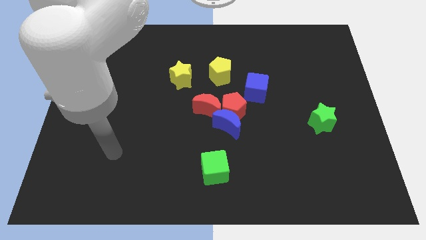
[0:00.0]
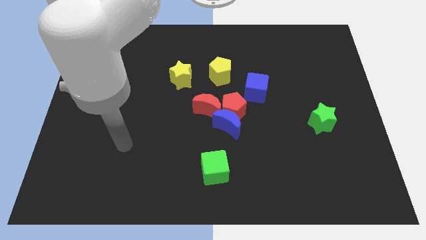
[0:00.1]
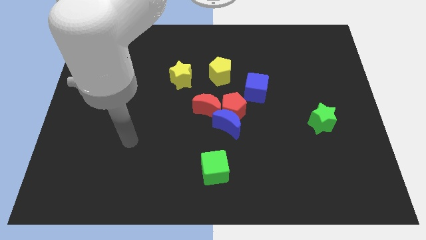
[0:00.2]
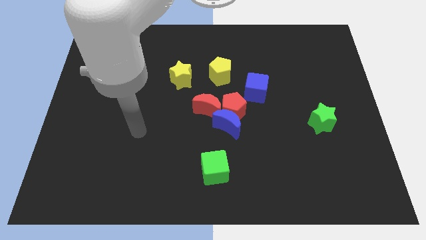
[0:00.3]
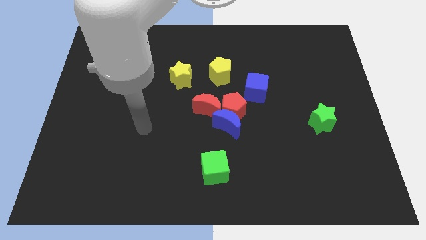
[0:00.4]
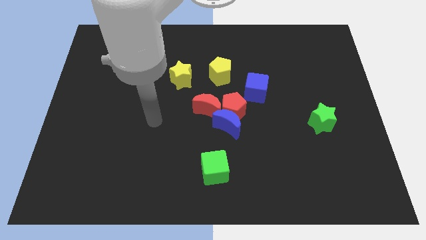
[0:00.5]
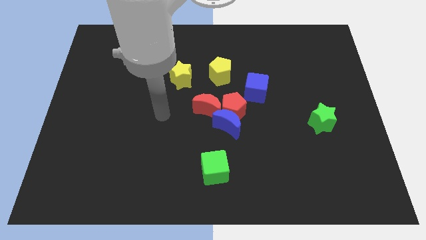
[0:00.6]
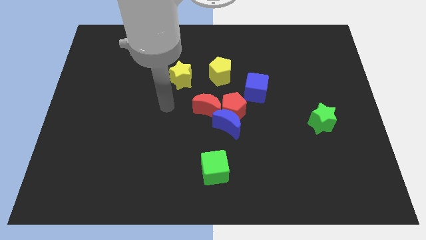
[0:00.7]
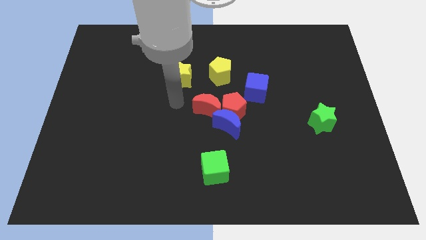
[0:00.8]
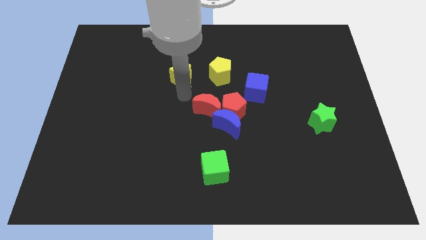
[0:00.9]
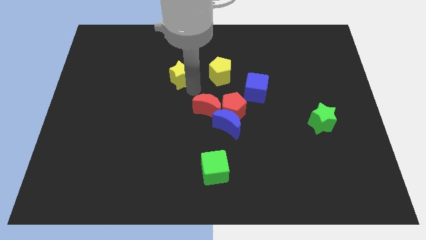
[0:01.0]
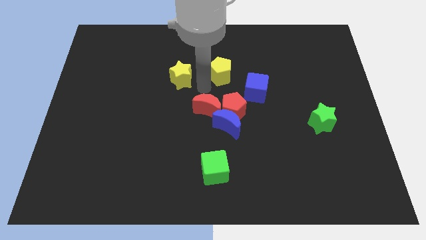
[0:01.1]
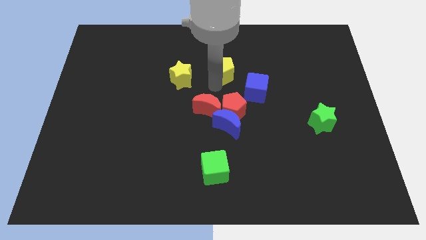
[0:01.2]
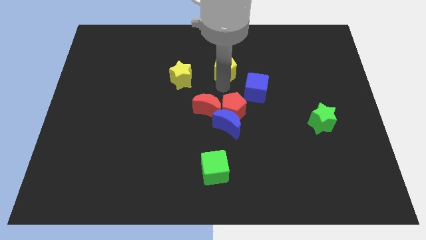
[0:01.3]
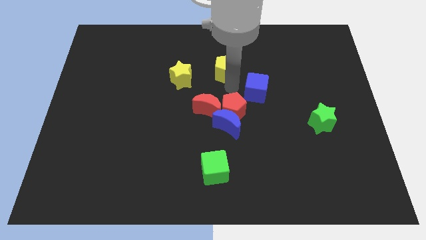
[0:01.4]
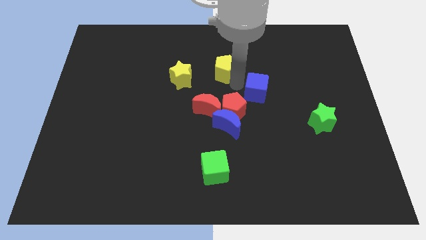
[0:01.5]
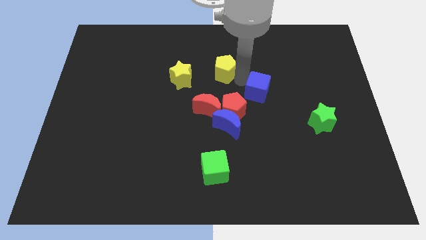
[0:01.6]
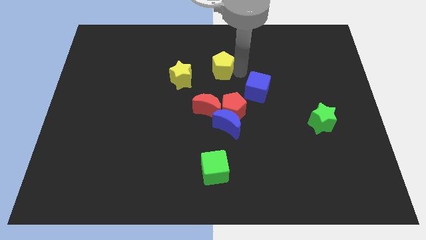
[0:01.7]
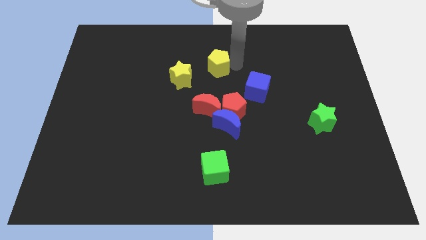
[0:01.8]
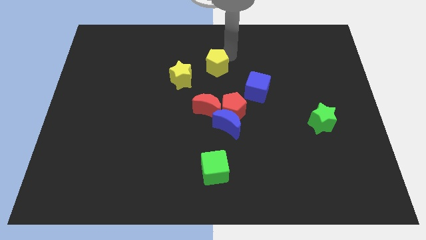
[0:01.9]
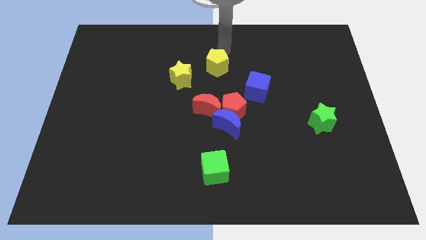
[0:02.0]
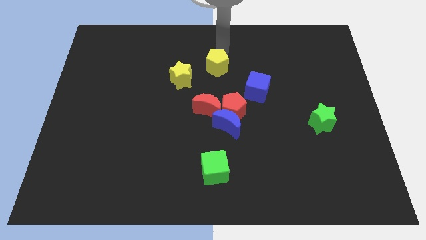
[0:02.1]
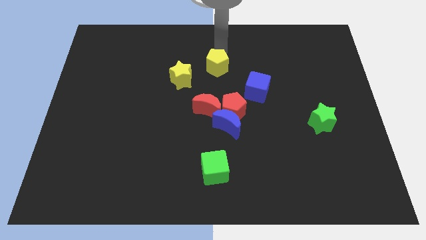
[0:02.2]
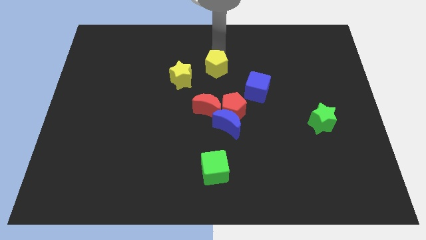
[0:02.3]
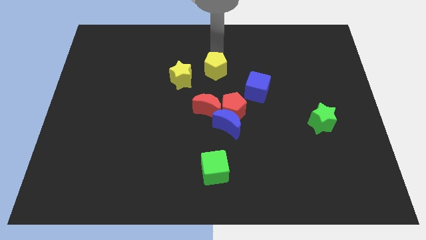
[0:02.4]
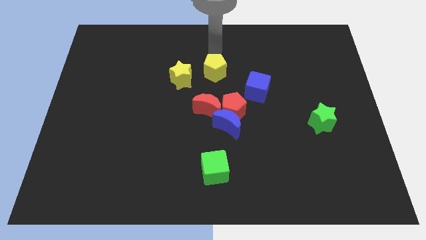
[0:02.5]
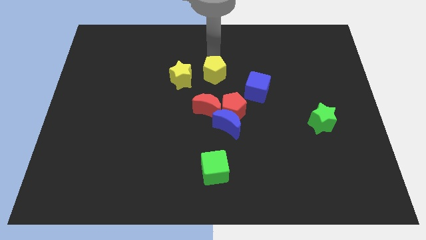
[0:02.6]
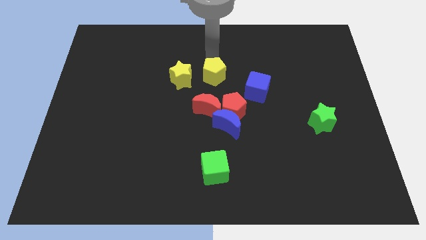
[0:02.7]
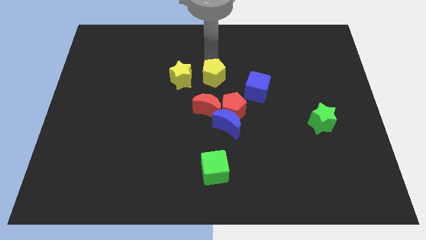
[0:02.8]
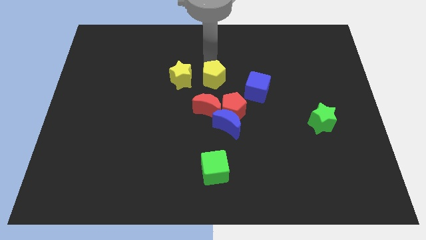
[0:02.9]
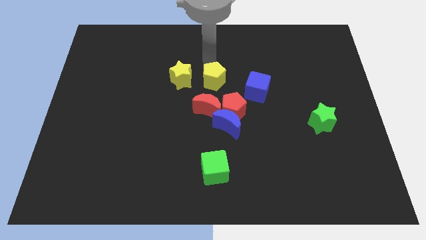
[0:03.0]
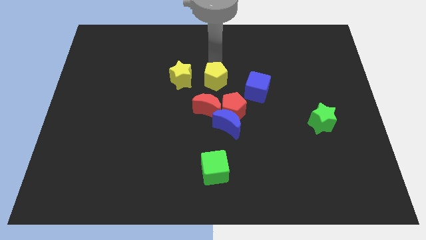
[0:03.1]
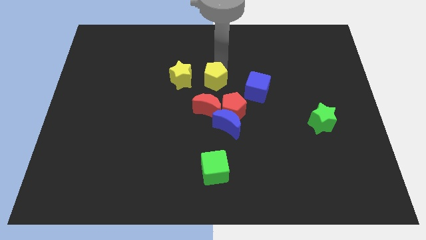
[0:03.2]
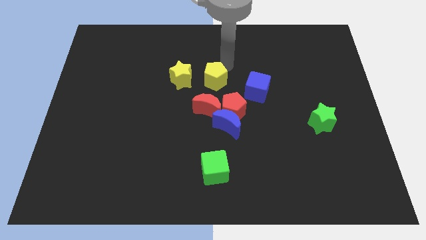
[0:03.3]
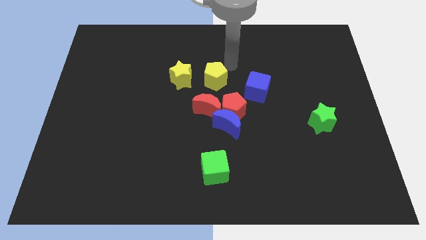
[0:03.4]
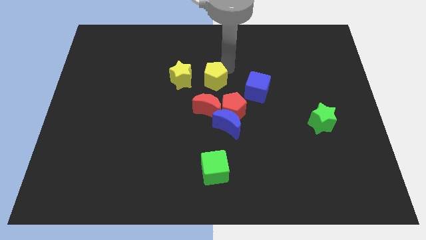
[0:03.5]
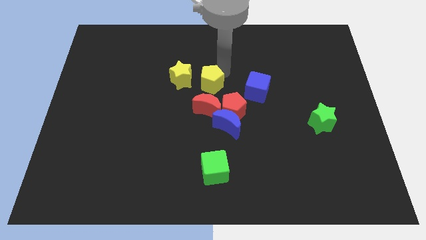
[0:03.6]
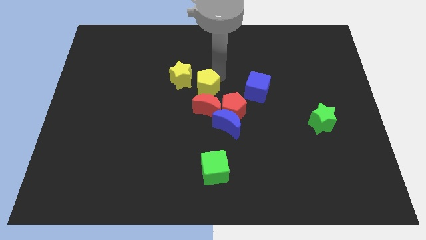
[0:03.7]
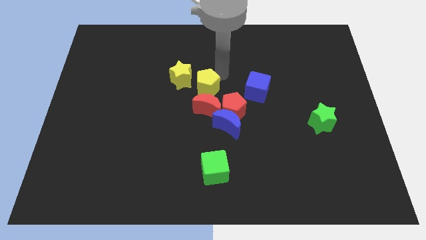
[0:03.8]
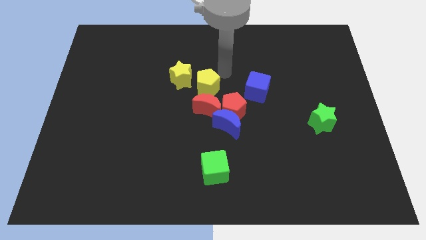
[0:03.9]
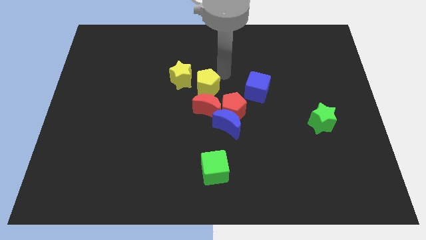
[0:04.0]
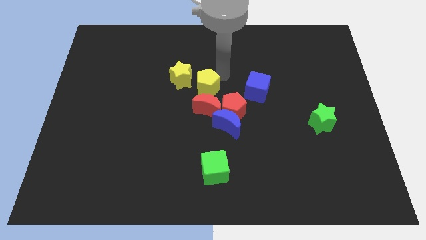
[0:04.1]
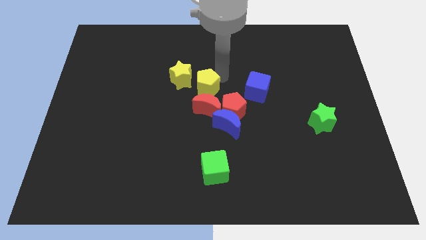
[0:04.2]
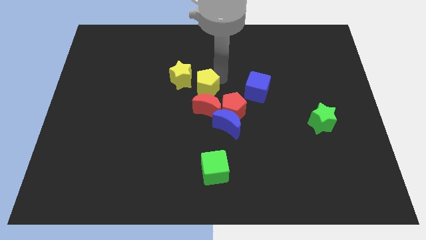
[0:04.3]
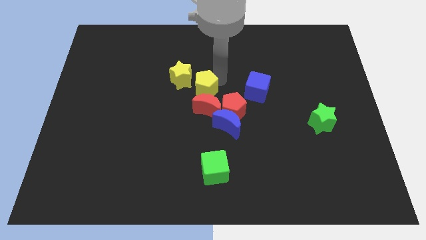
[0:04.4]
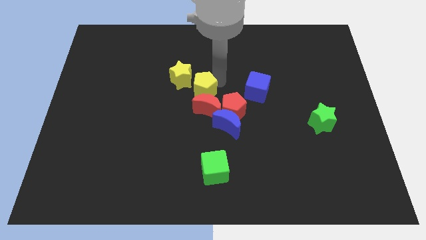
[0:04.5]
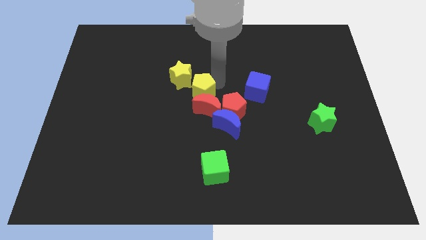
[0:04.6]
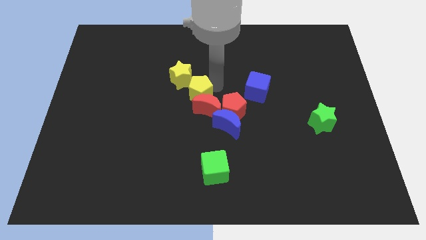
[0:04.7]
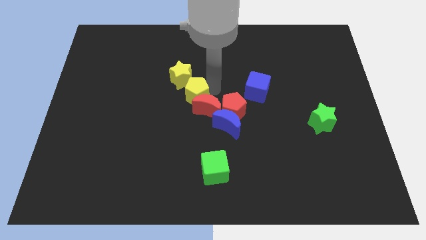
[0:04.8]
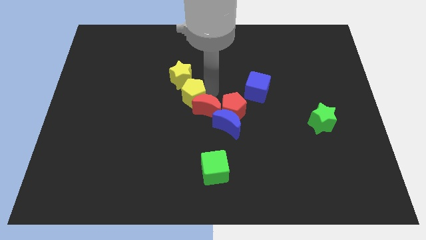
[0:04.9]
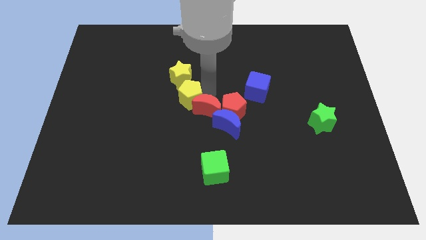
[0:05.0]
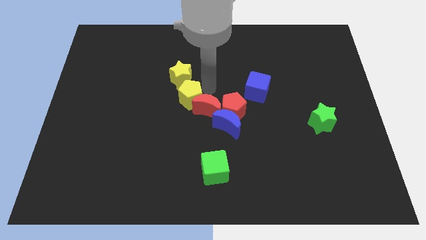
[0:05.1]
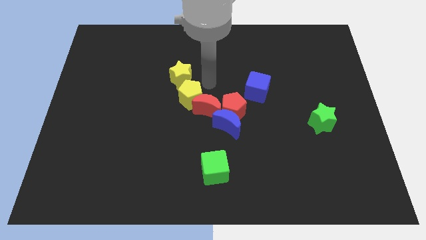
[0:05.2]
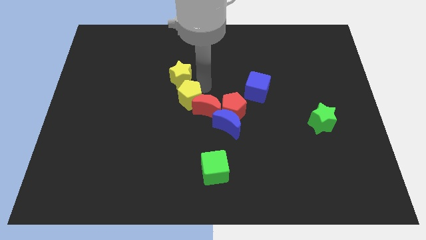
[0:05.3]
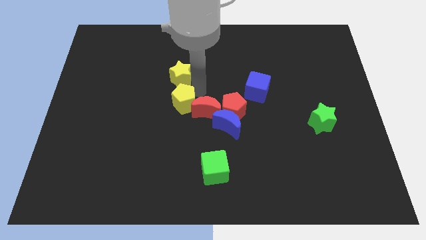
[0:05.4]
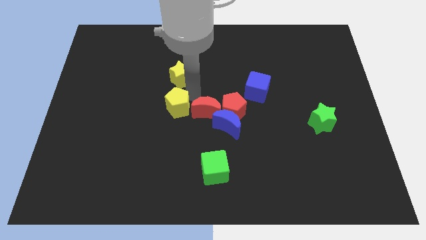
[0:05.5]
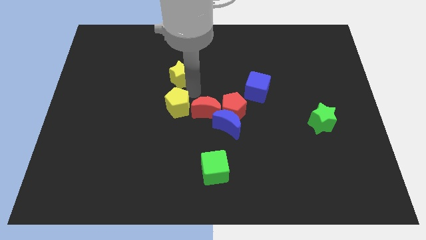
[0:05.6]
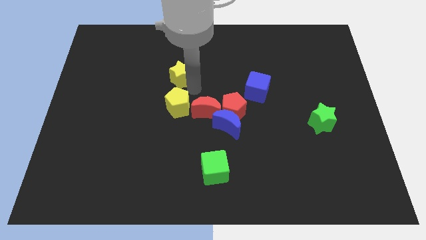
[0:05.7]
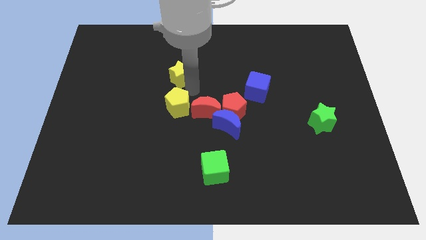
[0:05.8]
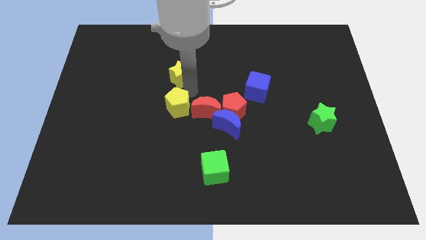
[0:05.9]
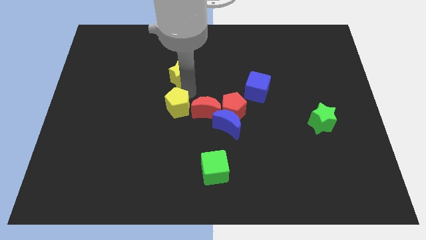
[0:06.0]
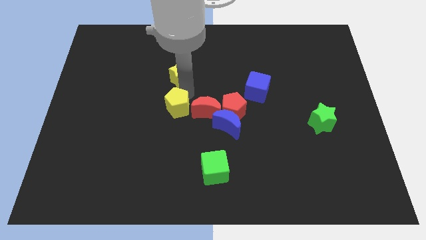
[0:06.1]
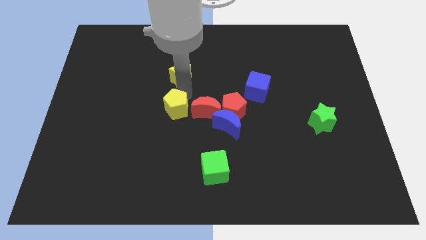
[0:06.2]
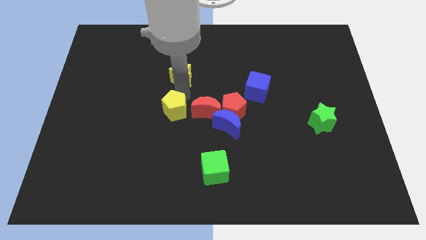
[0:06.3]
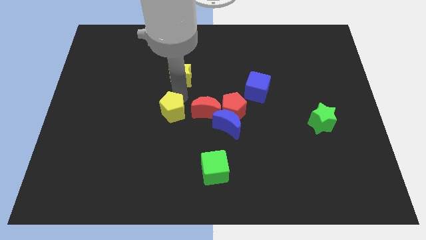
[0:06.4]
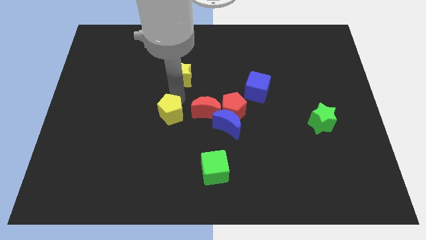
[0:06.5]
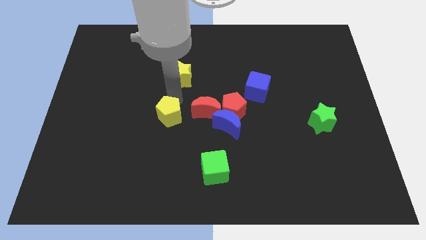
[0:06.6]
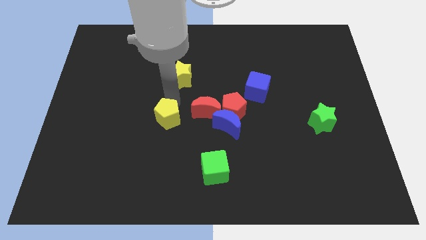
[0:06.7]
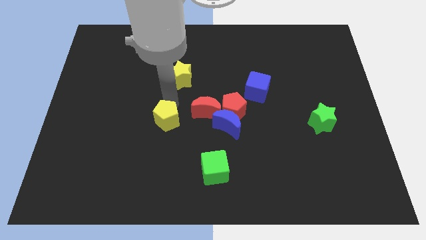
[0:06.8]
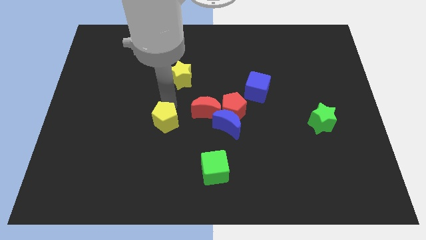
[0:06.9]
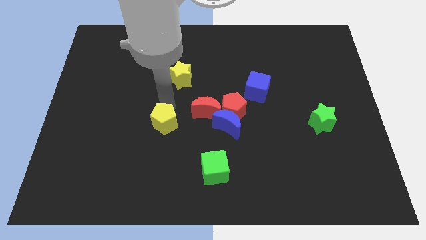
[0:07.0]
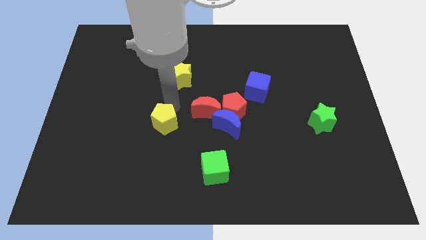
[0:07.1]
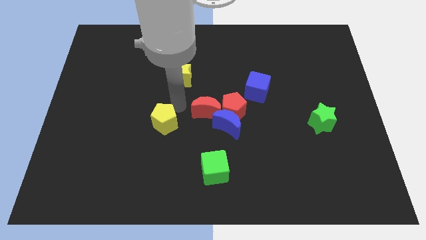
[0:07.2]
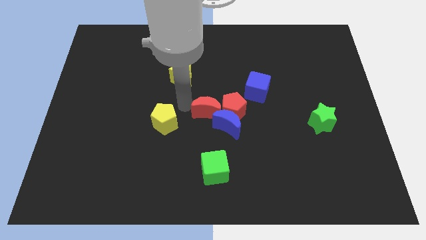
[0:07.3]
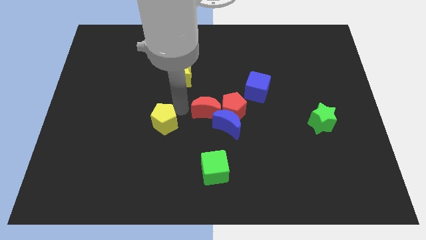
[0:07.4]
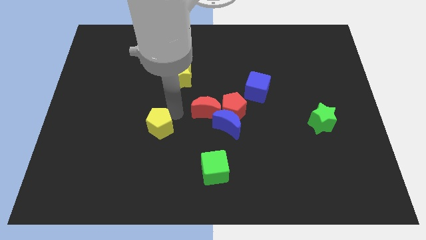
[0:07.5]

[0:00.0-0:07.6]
push the yellow pentagon downwards and left diagonally

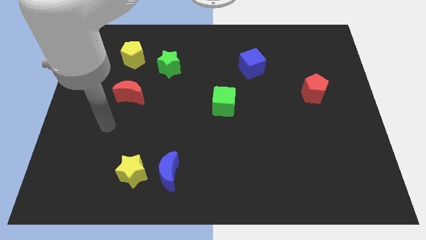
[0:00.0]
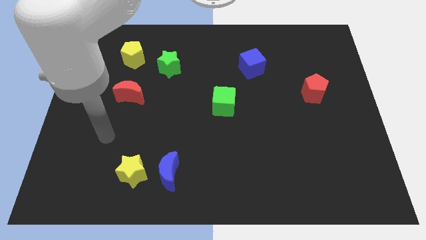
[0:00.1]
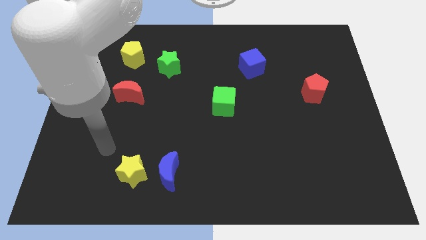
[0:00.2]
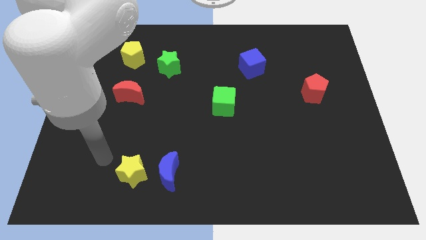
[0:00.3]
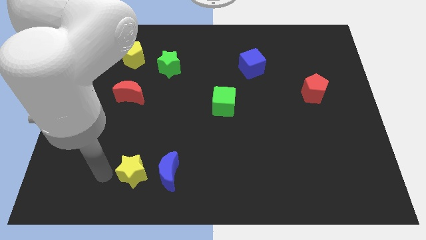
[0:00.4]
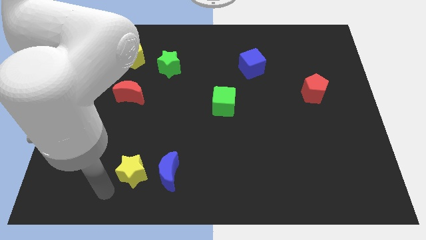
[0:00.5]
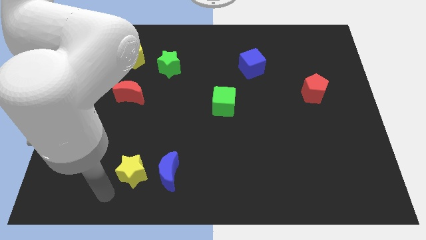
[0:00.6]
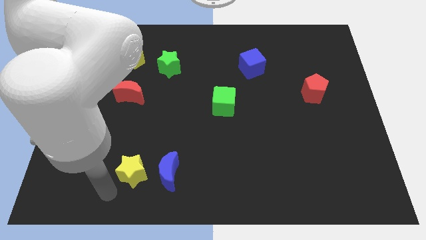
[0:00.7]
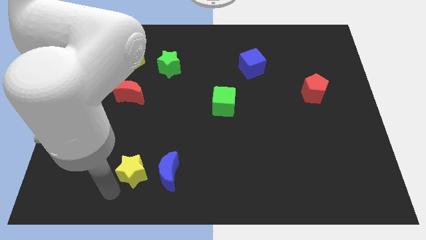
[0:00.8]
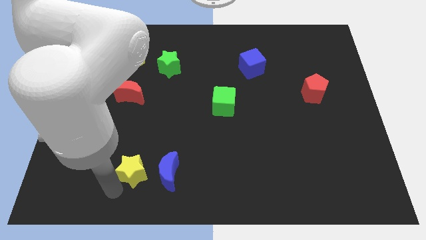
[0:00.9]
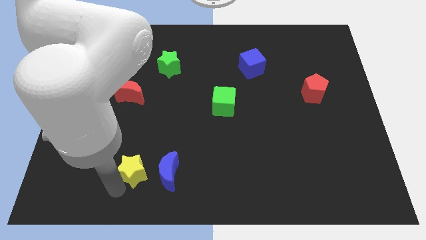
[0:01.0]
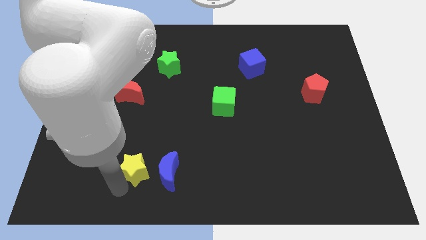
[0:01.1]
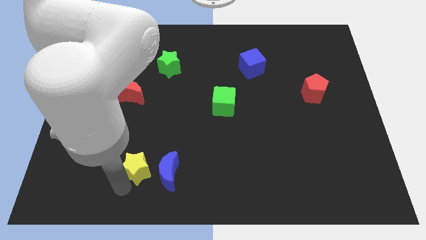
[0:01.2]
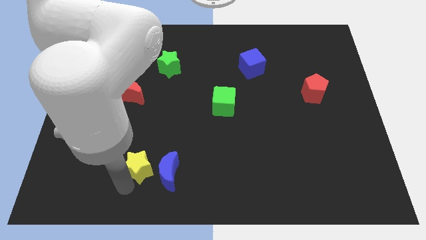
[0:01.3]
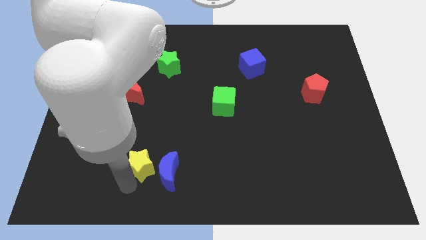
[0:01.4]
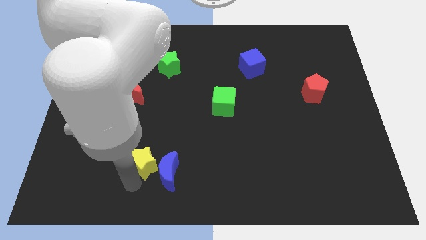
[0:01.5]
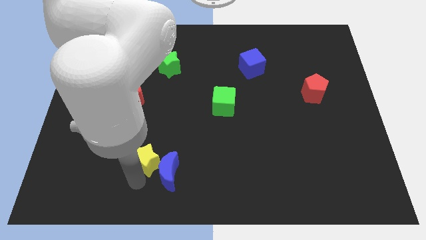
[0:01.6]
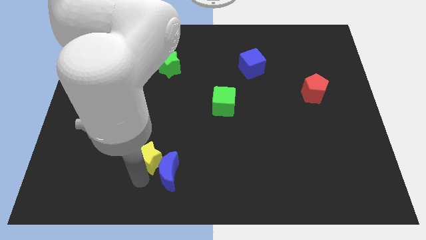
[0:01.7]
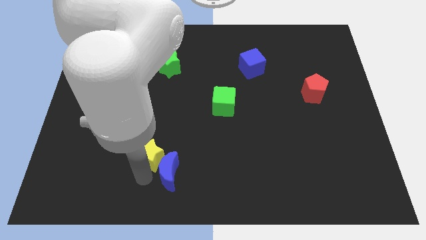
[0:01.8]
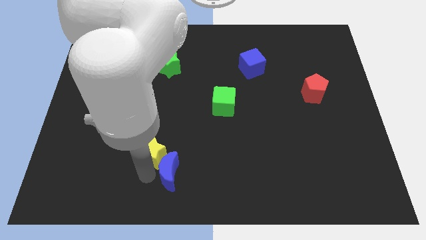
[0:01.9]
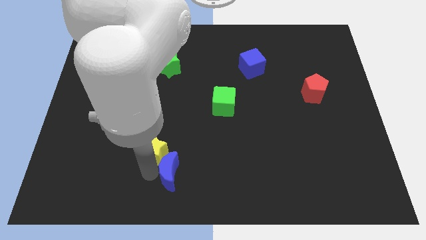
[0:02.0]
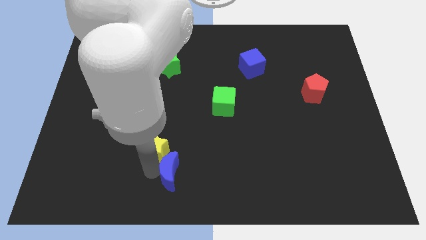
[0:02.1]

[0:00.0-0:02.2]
slide the yellow star a bit diagonally up and to the right
